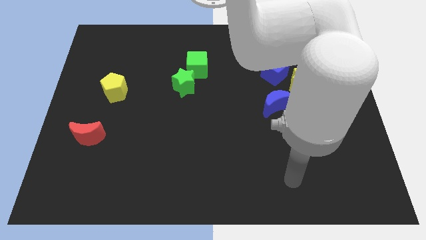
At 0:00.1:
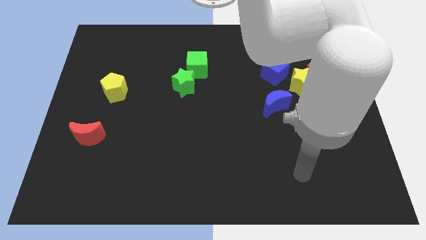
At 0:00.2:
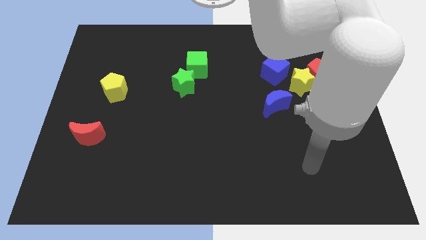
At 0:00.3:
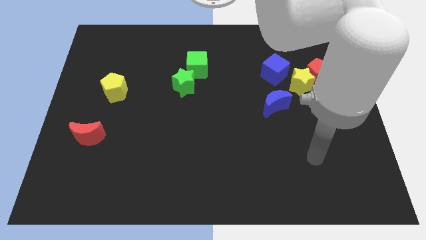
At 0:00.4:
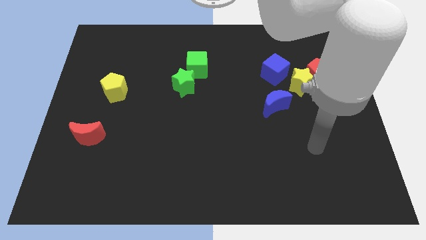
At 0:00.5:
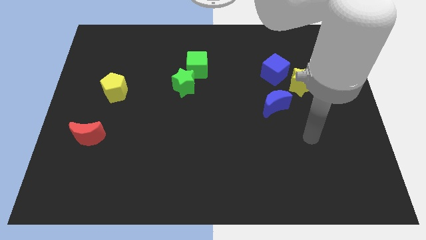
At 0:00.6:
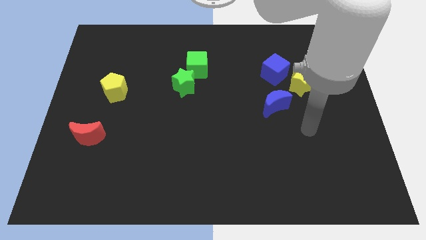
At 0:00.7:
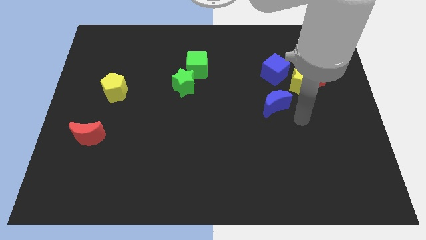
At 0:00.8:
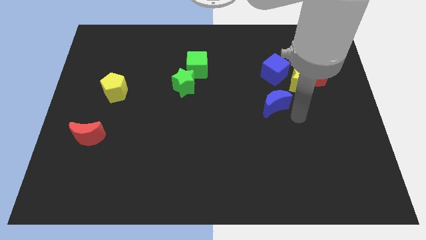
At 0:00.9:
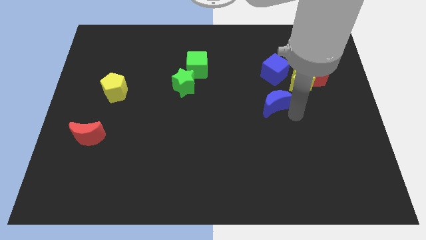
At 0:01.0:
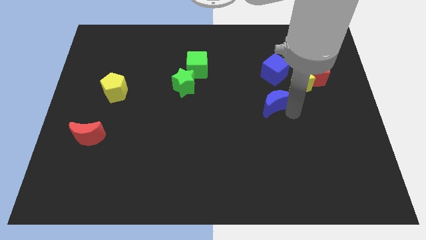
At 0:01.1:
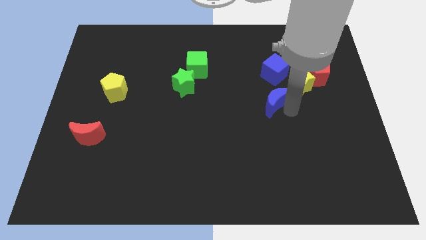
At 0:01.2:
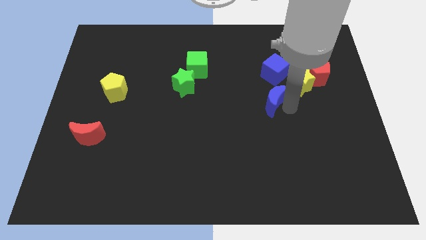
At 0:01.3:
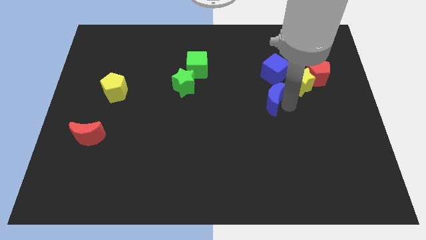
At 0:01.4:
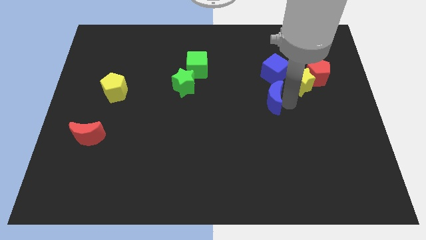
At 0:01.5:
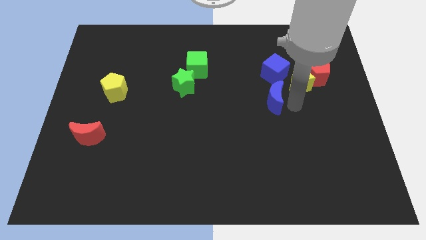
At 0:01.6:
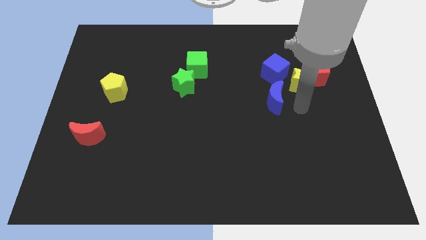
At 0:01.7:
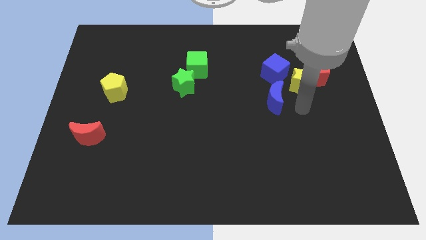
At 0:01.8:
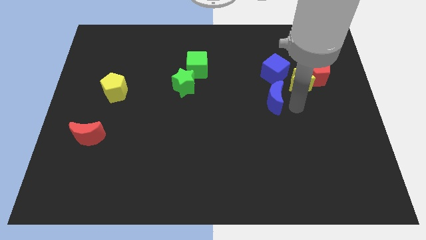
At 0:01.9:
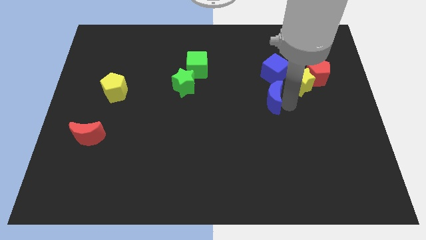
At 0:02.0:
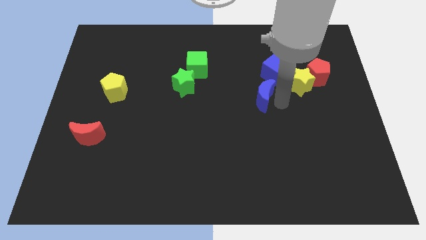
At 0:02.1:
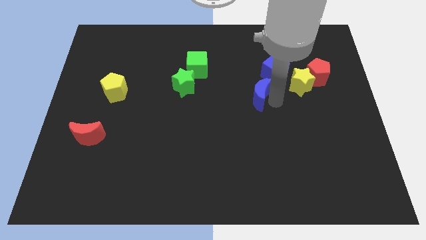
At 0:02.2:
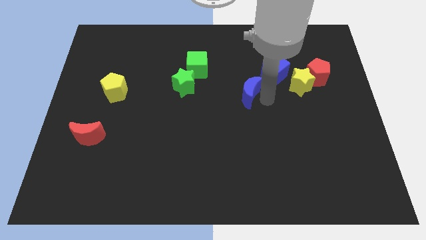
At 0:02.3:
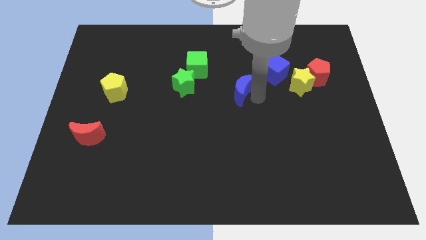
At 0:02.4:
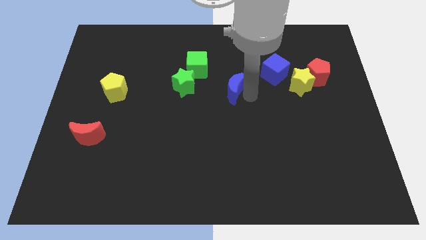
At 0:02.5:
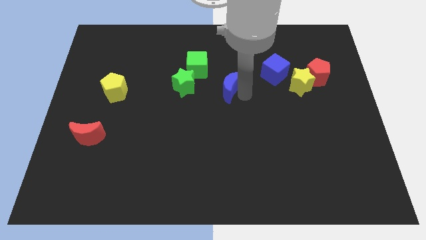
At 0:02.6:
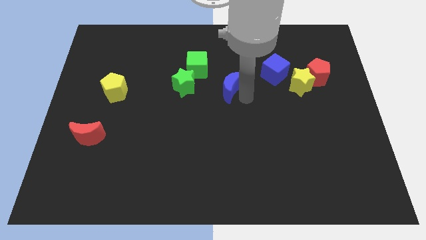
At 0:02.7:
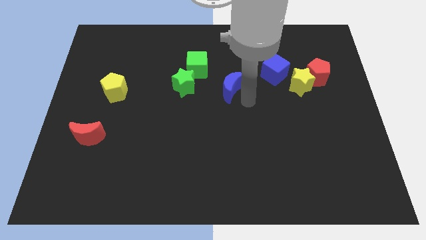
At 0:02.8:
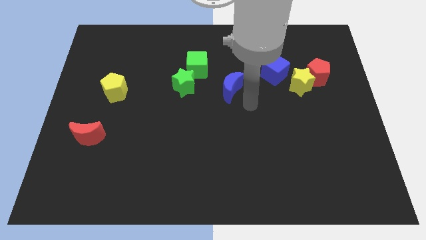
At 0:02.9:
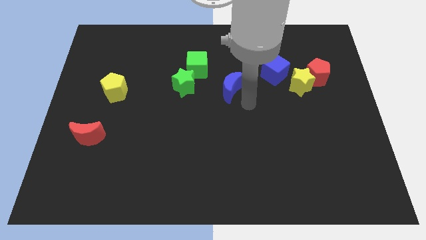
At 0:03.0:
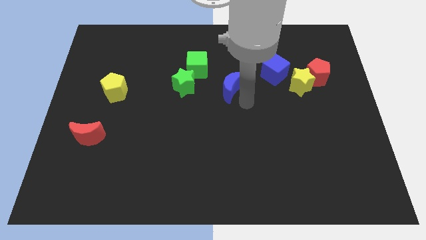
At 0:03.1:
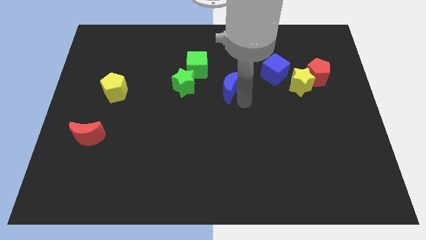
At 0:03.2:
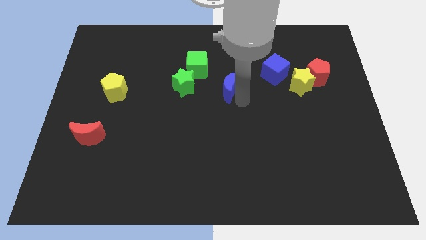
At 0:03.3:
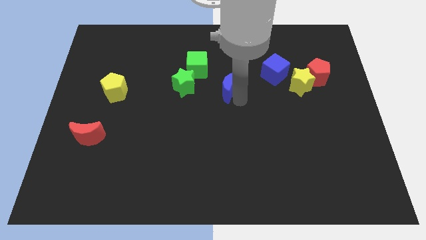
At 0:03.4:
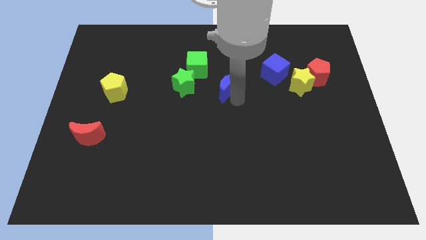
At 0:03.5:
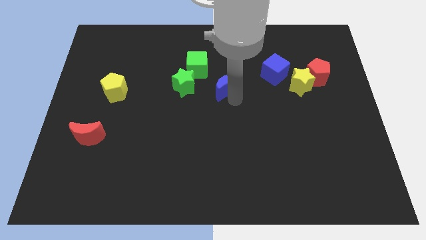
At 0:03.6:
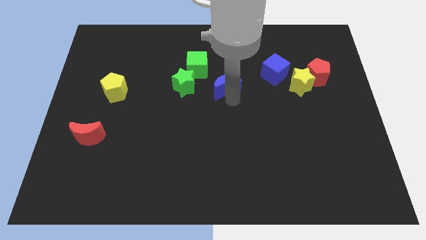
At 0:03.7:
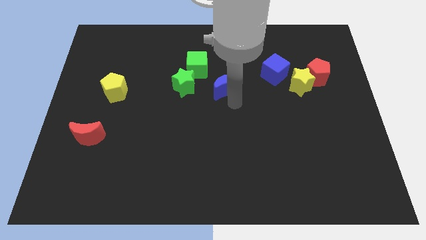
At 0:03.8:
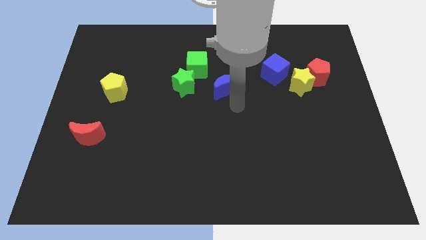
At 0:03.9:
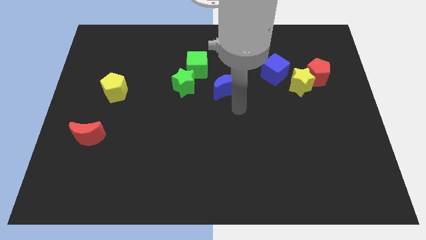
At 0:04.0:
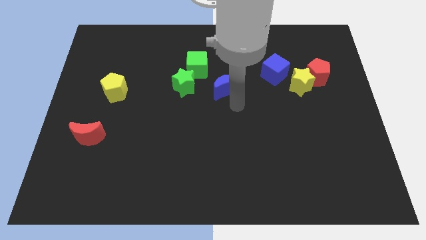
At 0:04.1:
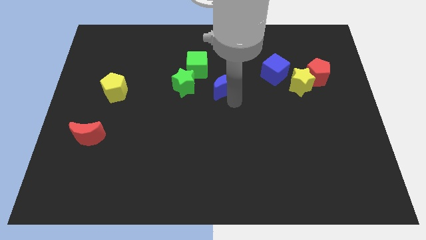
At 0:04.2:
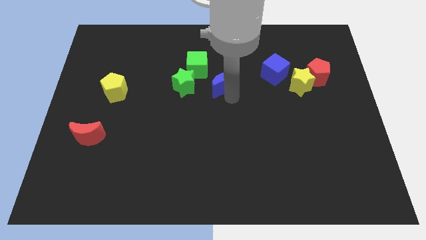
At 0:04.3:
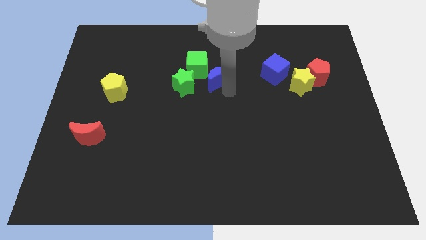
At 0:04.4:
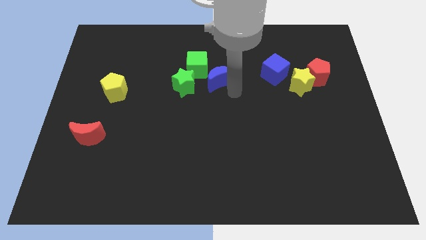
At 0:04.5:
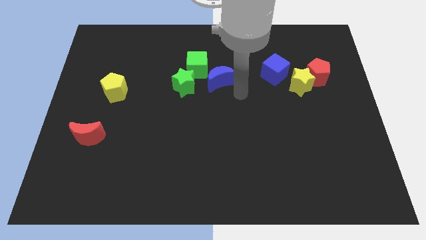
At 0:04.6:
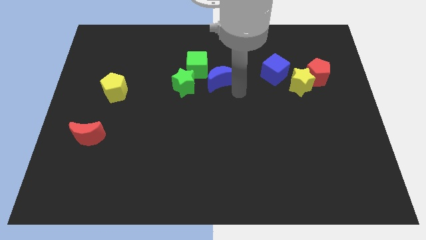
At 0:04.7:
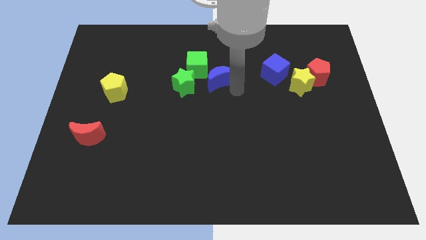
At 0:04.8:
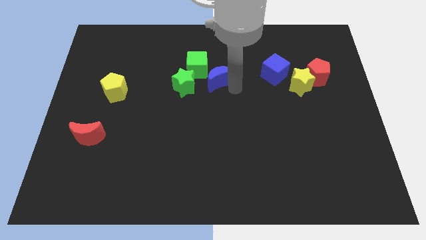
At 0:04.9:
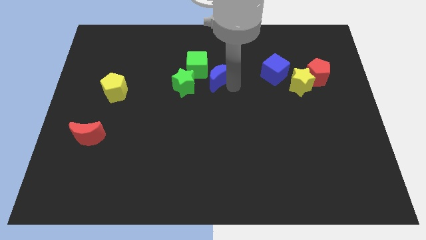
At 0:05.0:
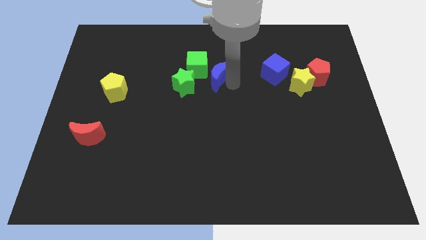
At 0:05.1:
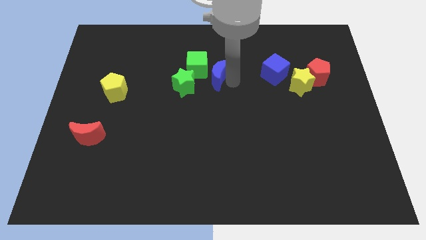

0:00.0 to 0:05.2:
put the blue moon to the green cube

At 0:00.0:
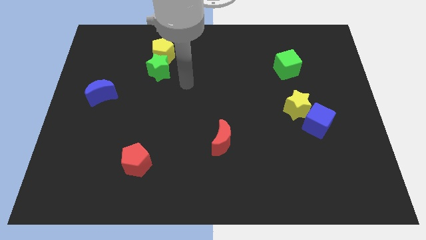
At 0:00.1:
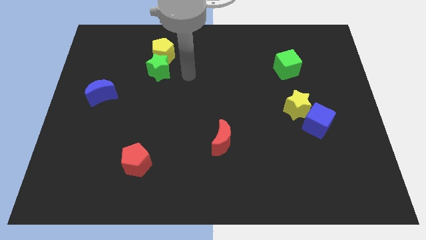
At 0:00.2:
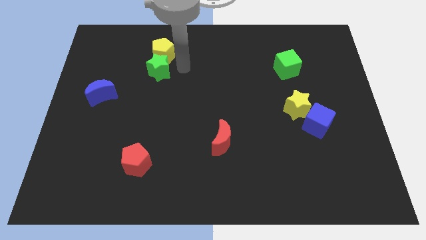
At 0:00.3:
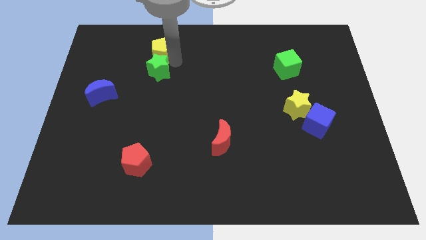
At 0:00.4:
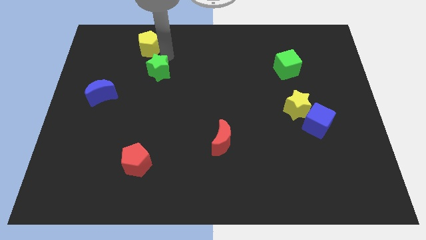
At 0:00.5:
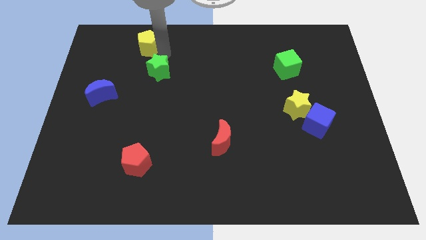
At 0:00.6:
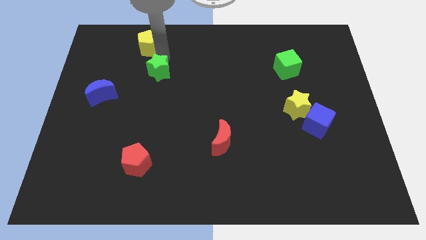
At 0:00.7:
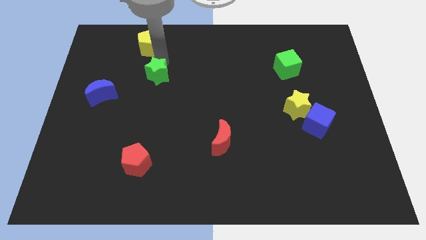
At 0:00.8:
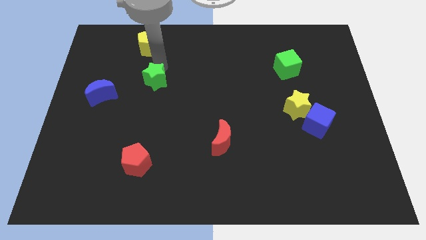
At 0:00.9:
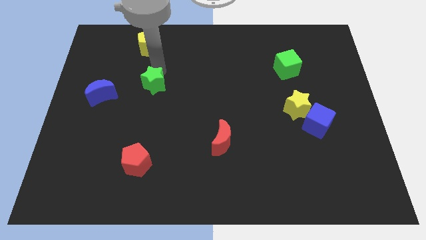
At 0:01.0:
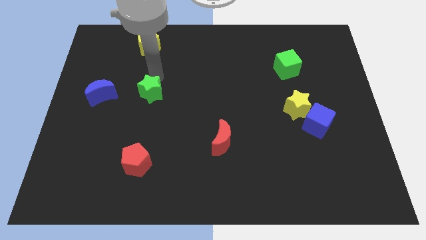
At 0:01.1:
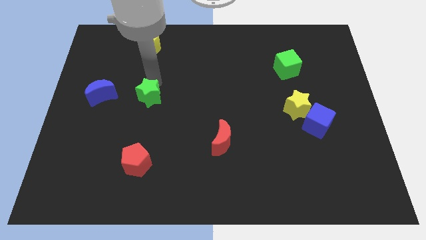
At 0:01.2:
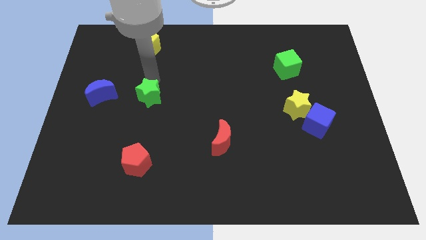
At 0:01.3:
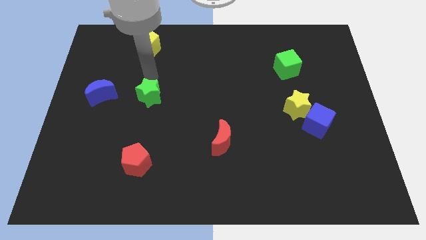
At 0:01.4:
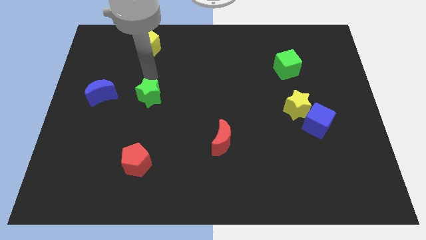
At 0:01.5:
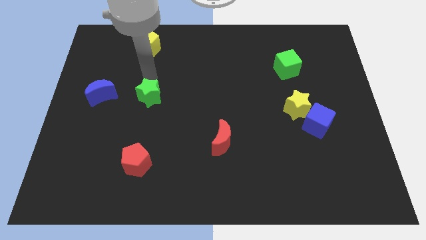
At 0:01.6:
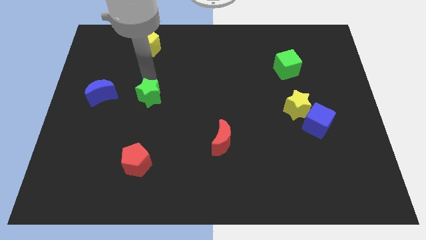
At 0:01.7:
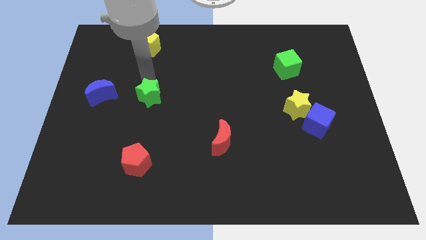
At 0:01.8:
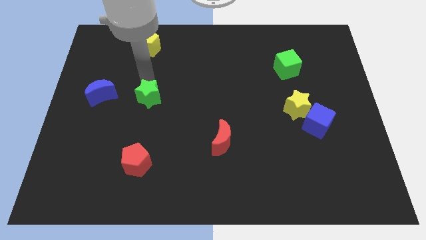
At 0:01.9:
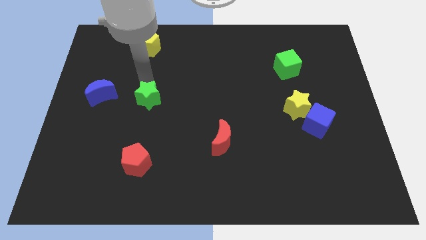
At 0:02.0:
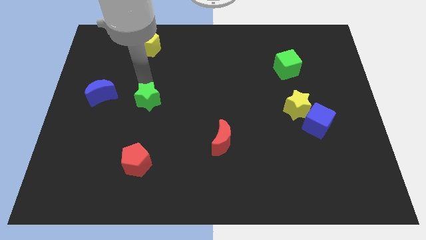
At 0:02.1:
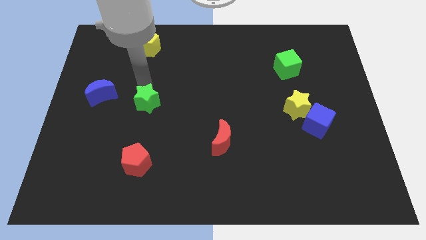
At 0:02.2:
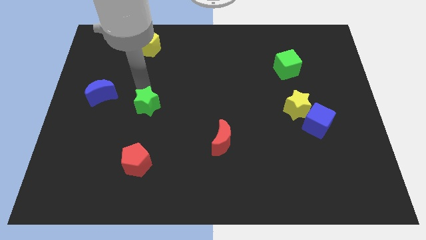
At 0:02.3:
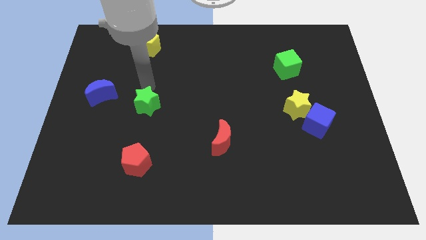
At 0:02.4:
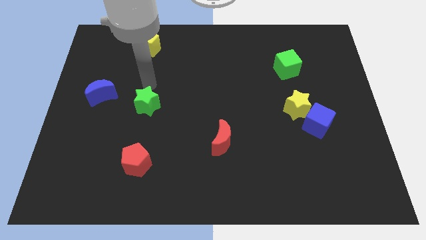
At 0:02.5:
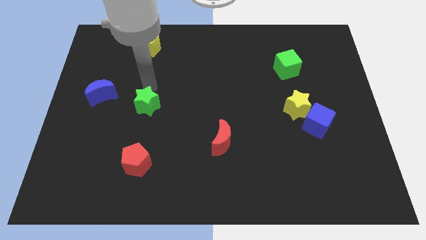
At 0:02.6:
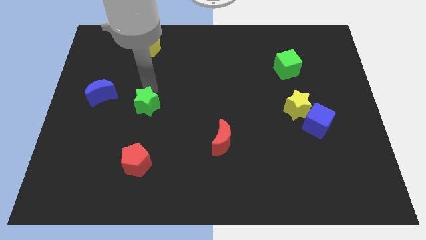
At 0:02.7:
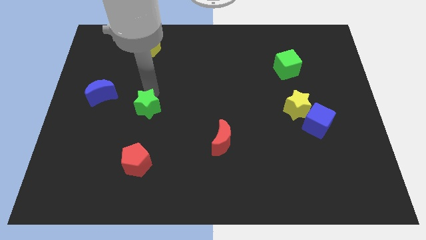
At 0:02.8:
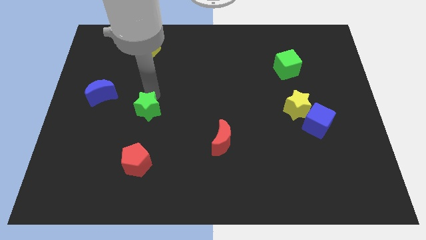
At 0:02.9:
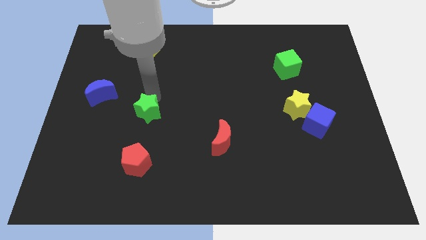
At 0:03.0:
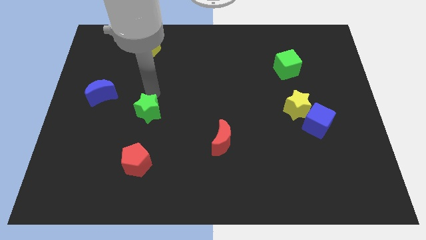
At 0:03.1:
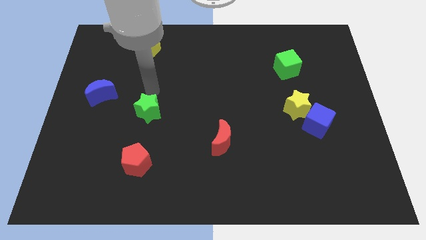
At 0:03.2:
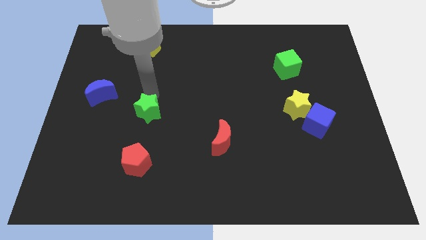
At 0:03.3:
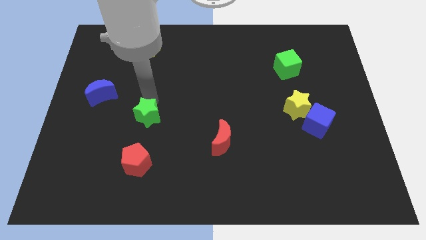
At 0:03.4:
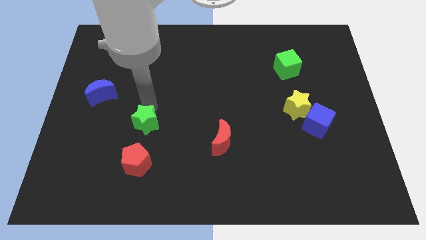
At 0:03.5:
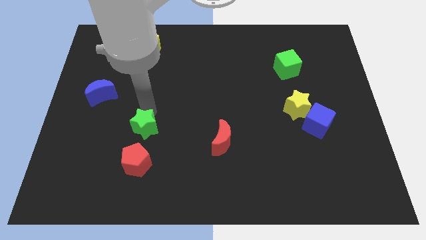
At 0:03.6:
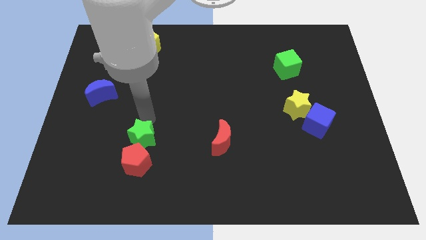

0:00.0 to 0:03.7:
move the green star next to the red pentagon
